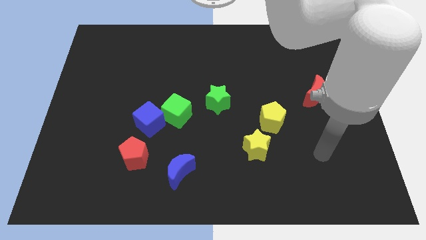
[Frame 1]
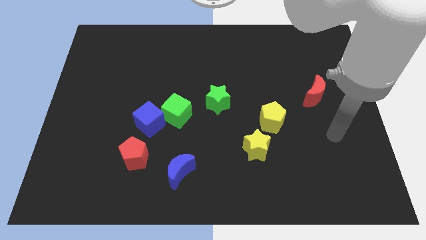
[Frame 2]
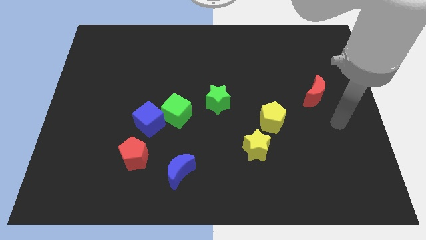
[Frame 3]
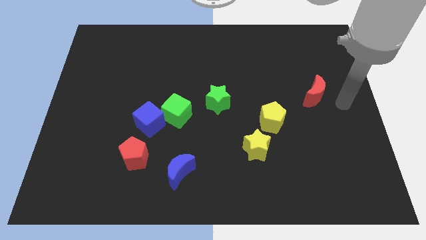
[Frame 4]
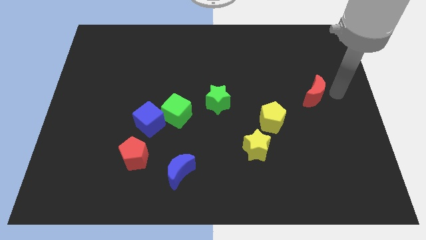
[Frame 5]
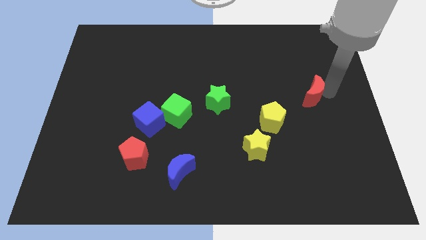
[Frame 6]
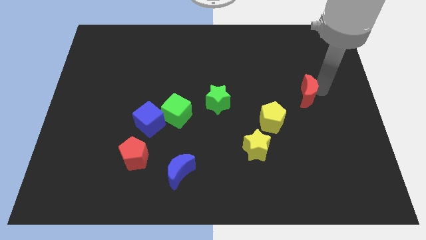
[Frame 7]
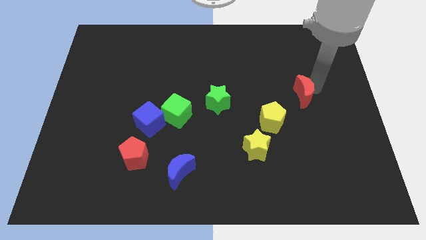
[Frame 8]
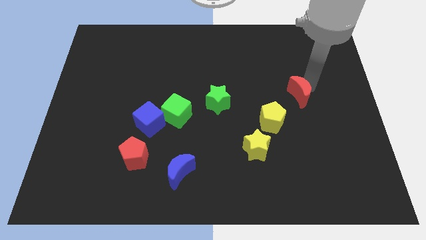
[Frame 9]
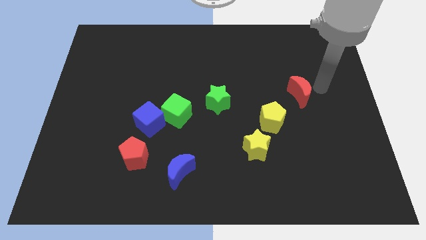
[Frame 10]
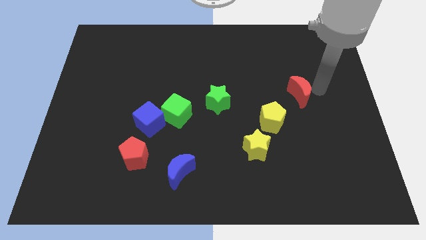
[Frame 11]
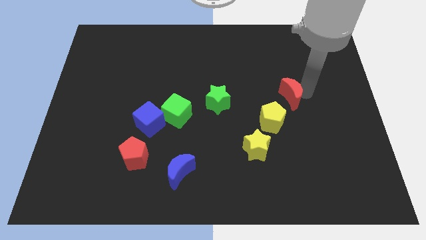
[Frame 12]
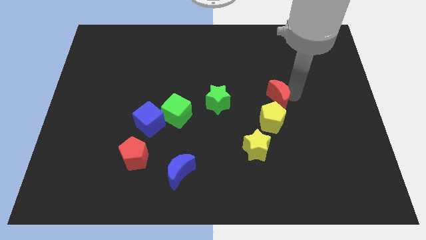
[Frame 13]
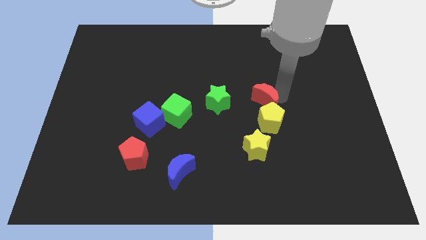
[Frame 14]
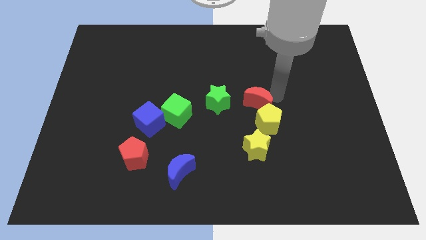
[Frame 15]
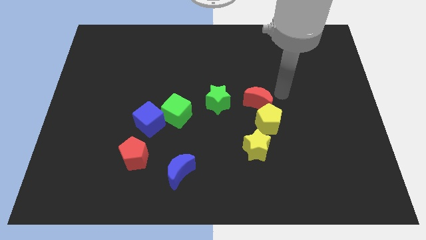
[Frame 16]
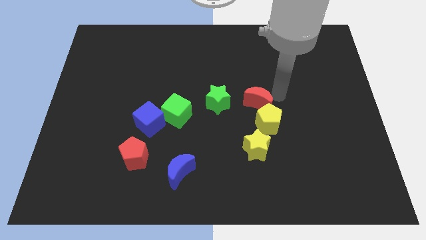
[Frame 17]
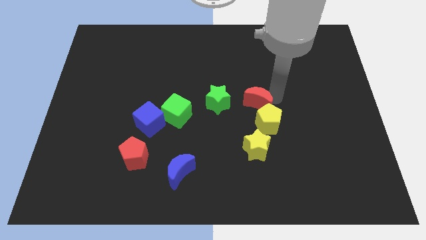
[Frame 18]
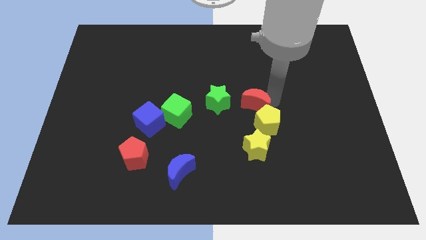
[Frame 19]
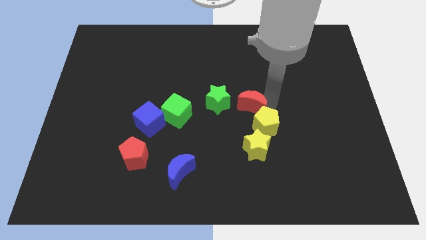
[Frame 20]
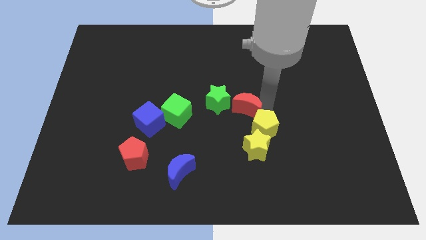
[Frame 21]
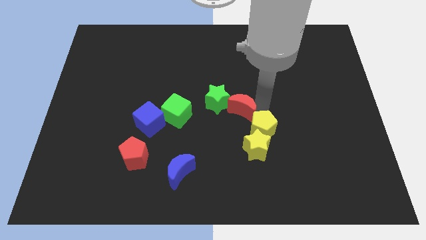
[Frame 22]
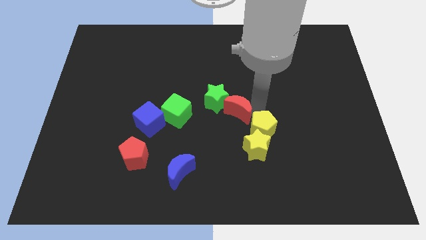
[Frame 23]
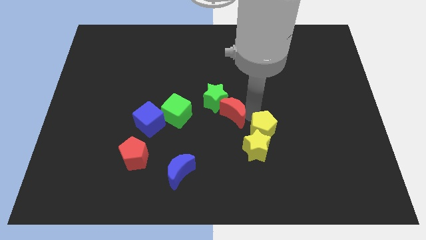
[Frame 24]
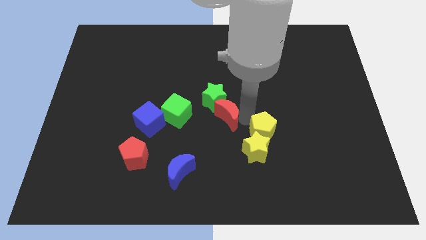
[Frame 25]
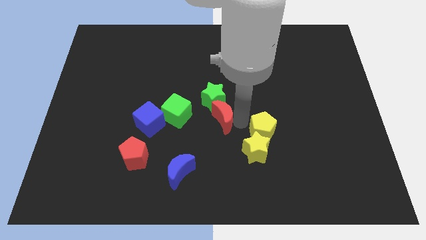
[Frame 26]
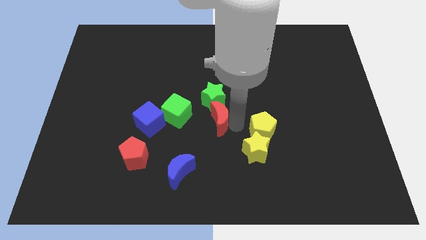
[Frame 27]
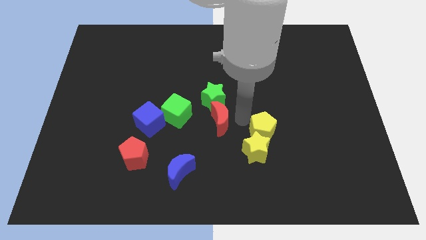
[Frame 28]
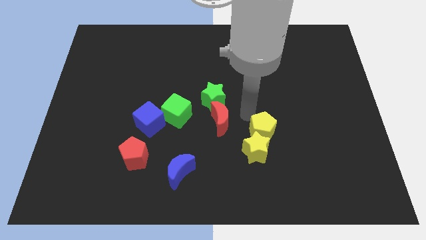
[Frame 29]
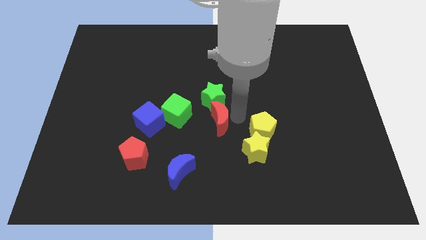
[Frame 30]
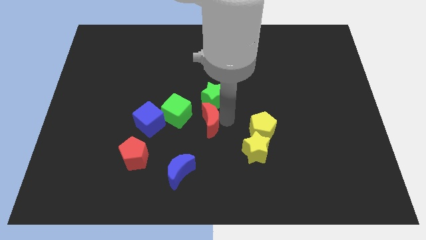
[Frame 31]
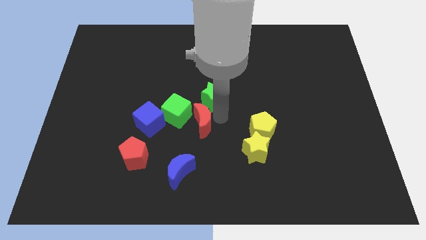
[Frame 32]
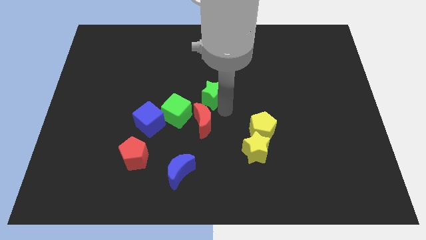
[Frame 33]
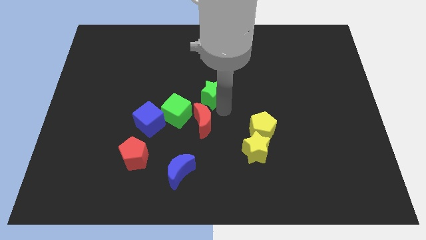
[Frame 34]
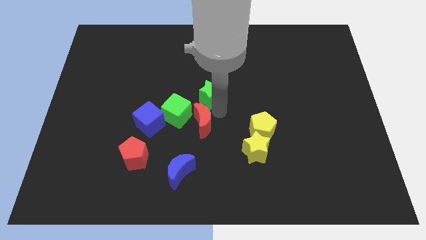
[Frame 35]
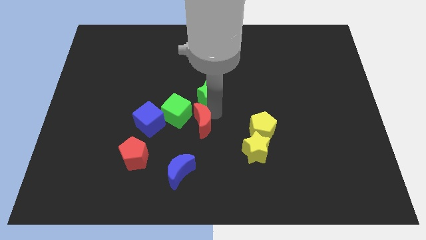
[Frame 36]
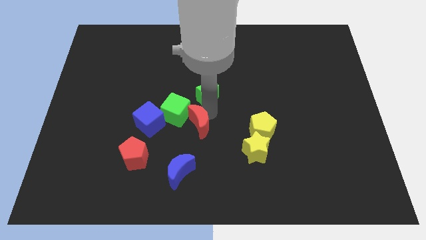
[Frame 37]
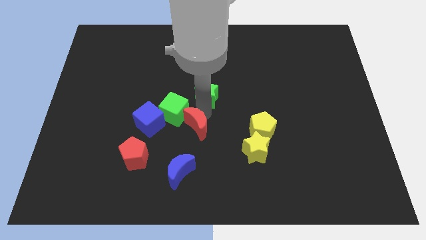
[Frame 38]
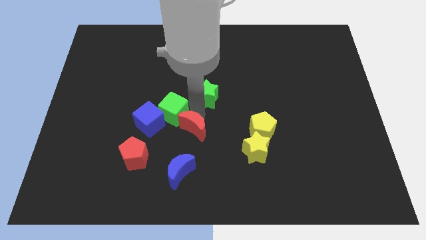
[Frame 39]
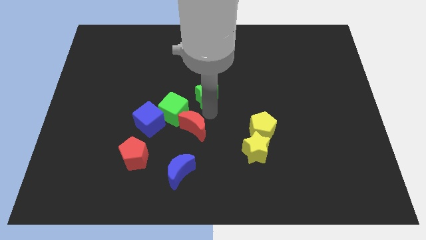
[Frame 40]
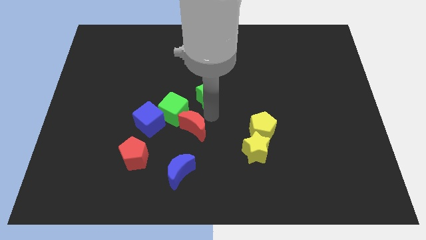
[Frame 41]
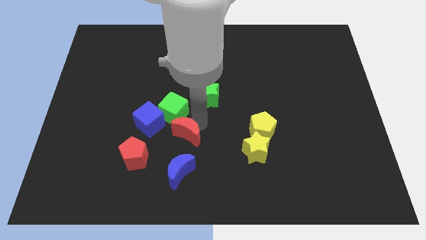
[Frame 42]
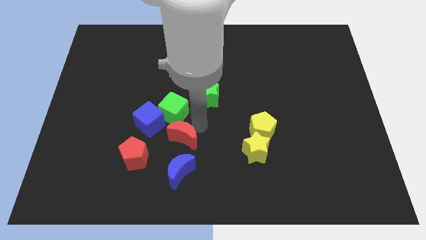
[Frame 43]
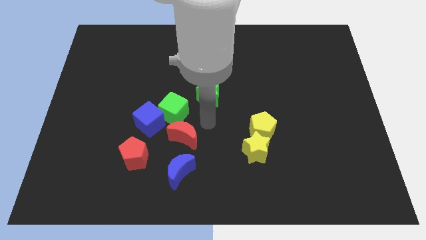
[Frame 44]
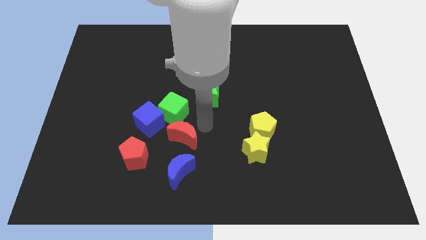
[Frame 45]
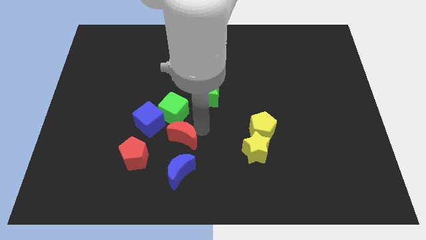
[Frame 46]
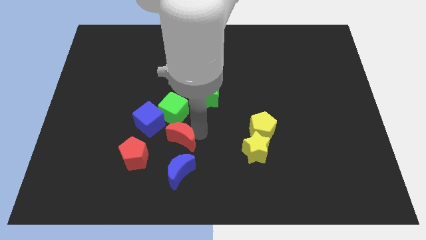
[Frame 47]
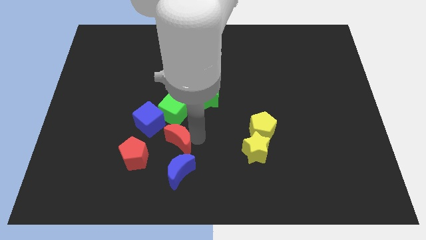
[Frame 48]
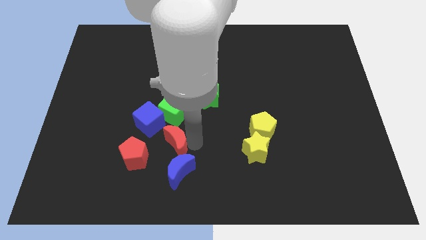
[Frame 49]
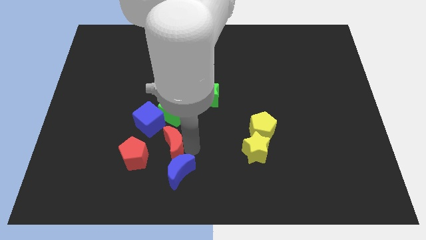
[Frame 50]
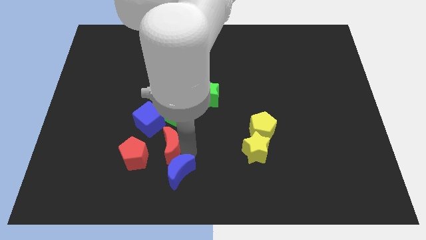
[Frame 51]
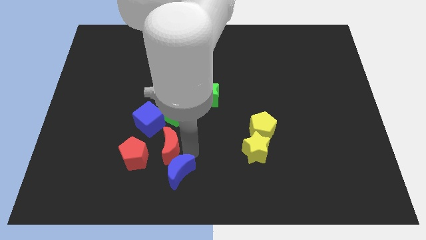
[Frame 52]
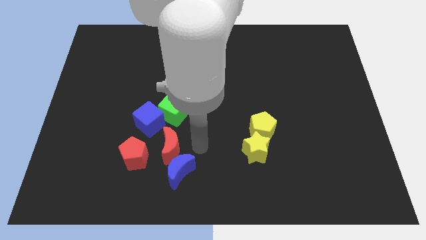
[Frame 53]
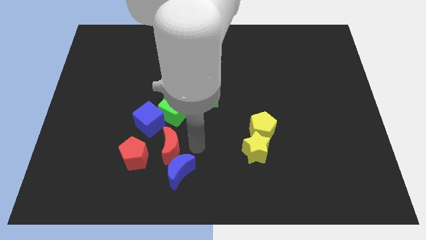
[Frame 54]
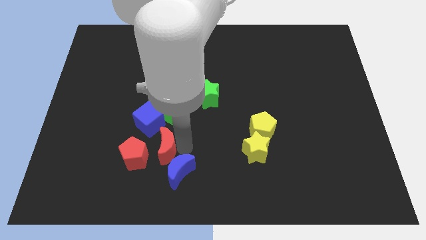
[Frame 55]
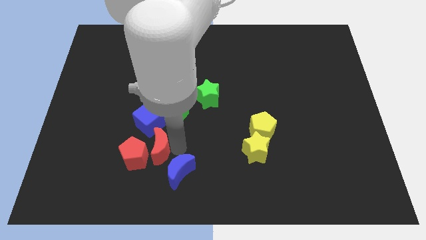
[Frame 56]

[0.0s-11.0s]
slide the red moon close to the red pentagon

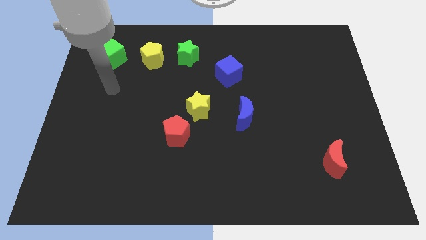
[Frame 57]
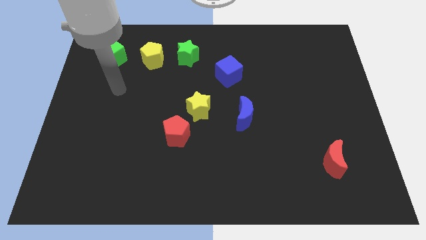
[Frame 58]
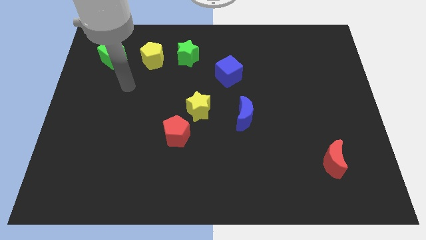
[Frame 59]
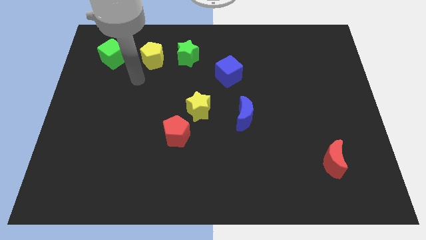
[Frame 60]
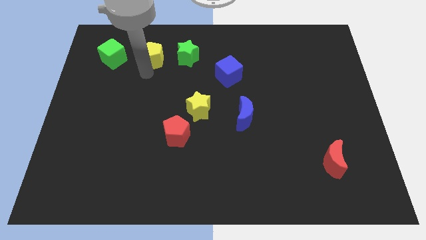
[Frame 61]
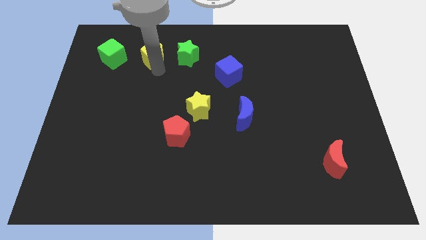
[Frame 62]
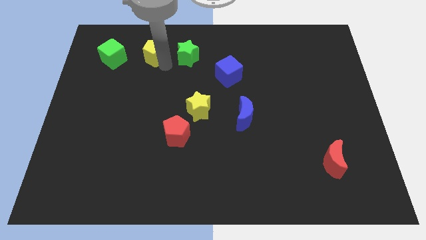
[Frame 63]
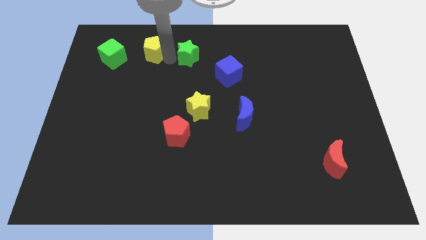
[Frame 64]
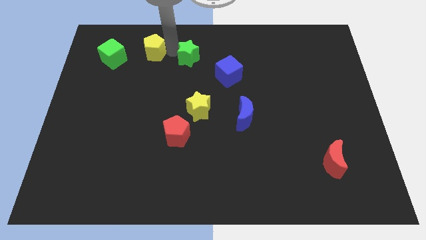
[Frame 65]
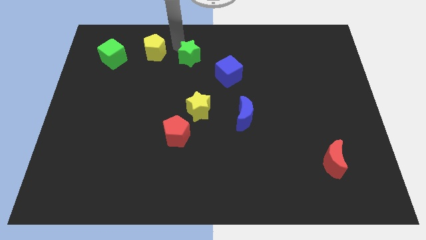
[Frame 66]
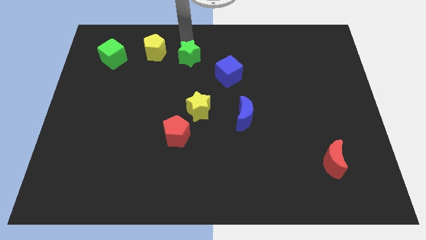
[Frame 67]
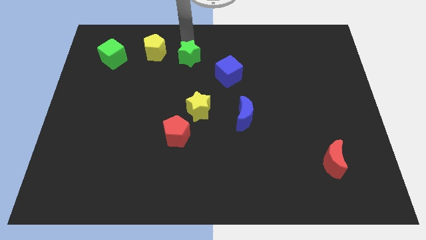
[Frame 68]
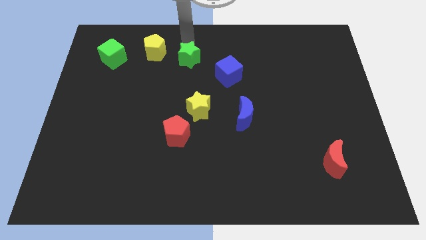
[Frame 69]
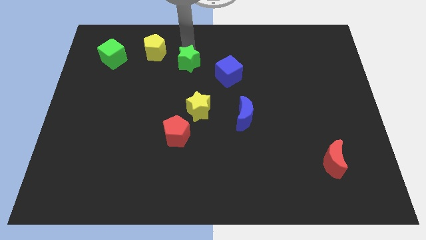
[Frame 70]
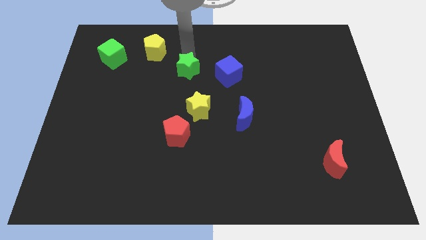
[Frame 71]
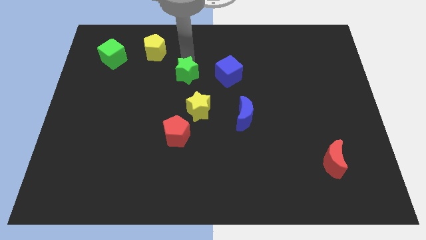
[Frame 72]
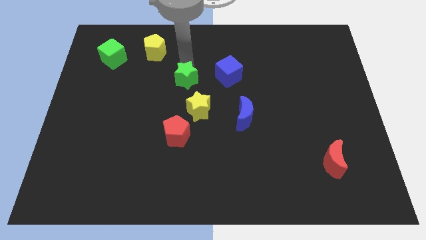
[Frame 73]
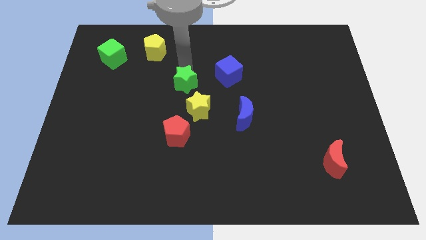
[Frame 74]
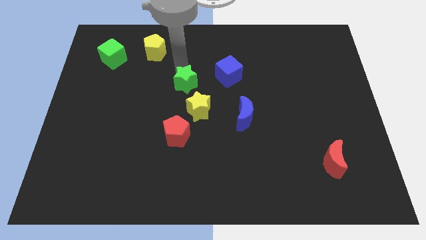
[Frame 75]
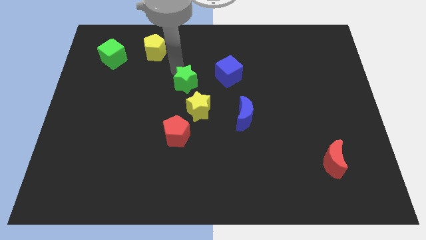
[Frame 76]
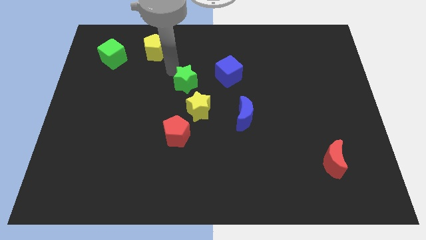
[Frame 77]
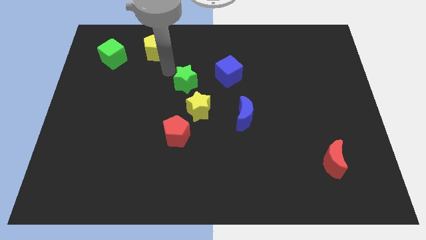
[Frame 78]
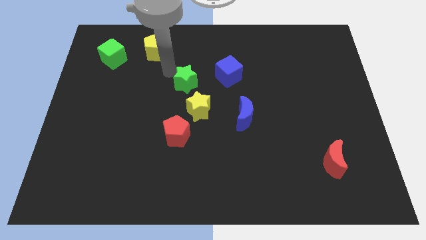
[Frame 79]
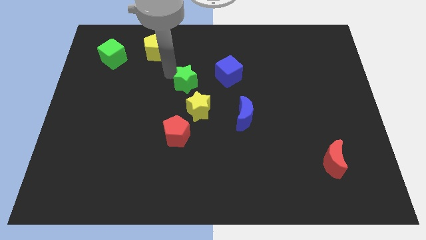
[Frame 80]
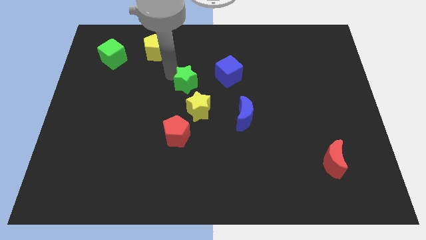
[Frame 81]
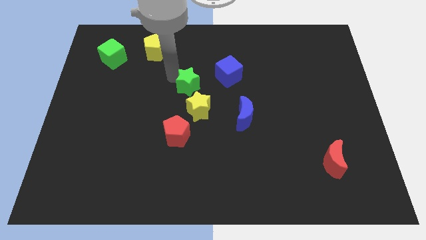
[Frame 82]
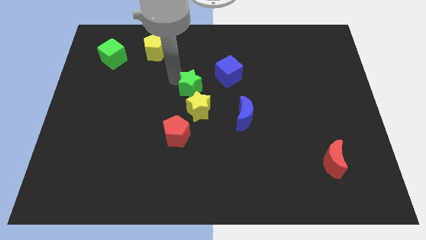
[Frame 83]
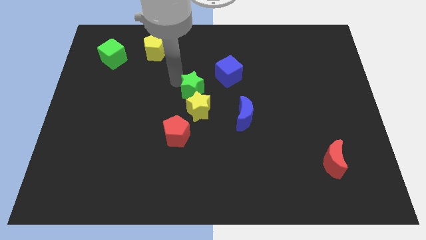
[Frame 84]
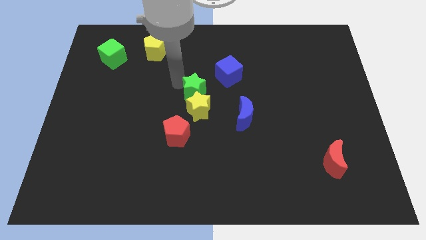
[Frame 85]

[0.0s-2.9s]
put the green star next to the yellow star
